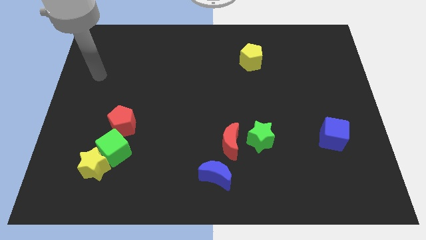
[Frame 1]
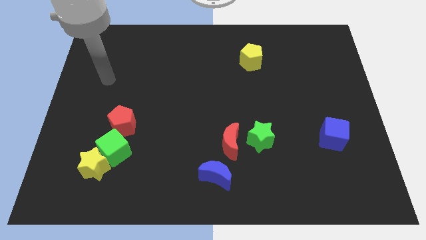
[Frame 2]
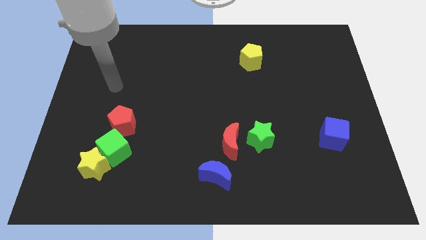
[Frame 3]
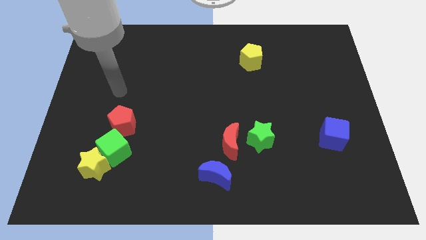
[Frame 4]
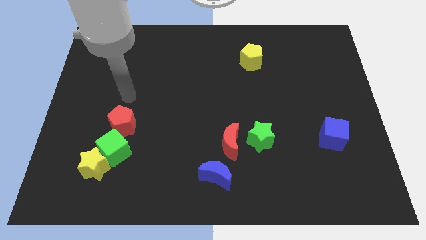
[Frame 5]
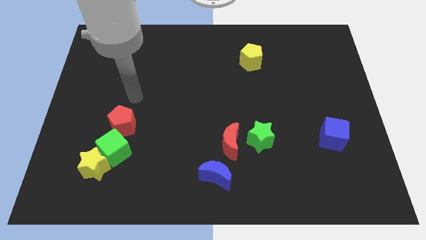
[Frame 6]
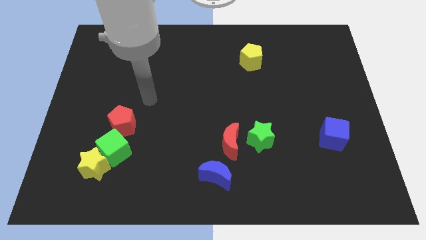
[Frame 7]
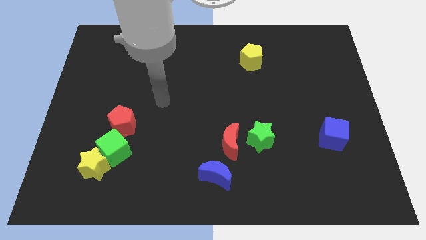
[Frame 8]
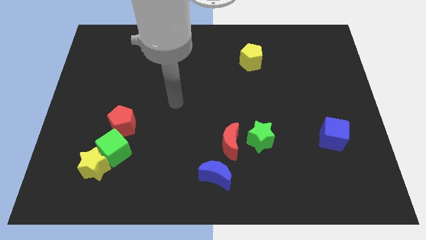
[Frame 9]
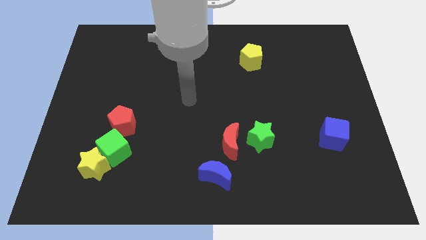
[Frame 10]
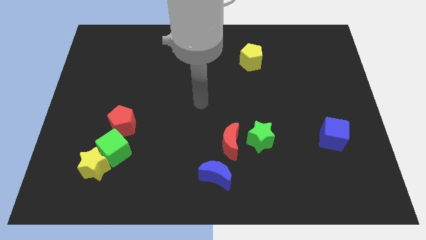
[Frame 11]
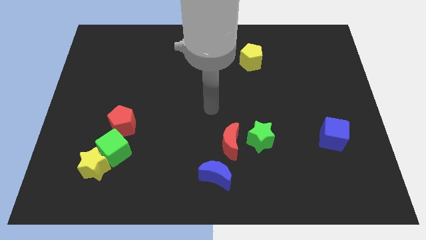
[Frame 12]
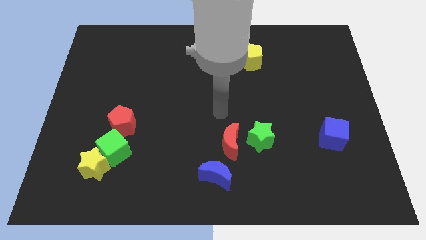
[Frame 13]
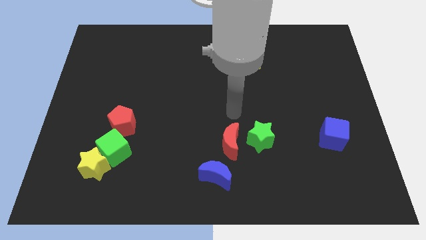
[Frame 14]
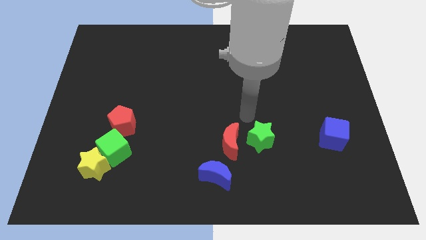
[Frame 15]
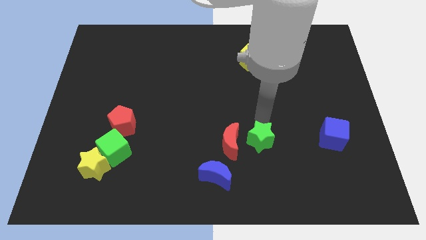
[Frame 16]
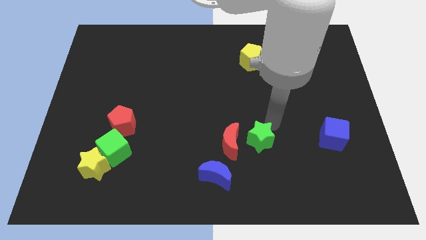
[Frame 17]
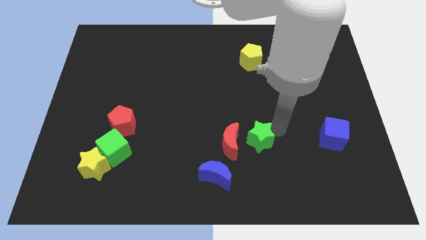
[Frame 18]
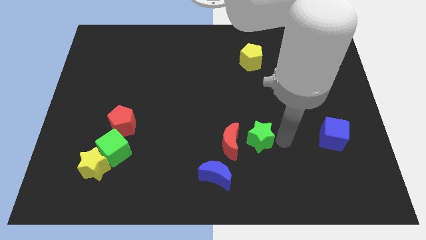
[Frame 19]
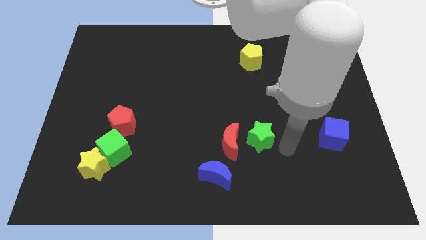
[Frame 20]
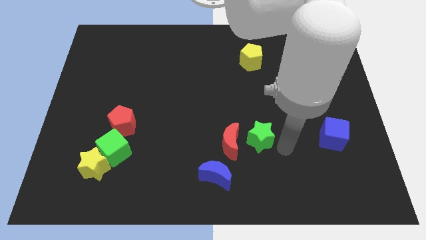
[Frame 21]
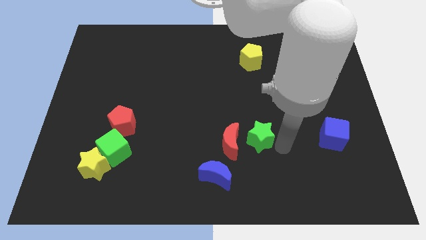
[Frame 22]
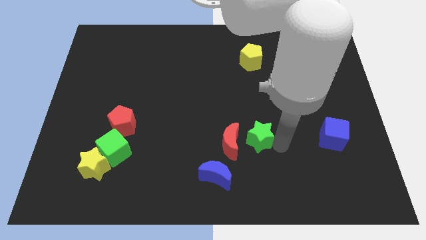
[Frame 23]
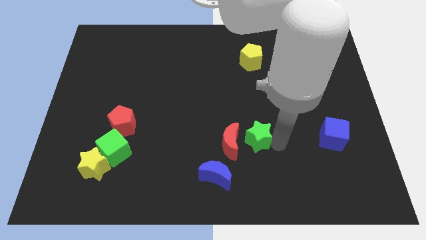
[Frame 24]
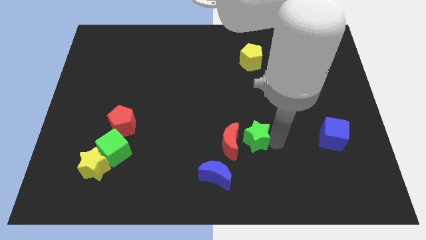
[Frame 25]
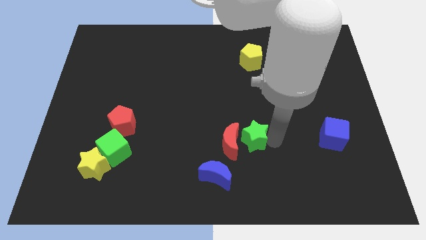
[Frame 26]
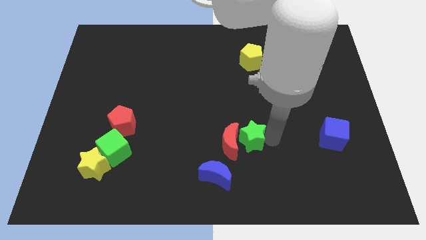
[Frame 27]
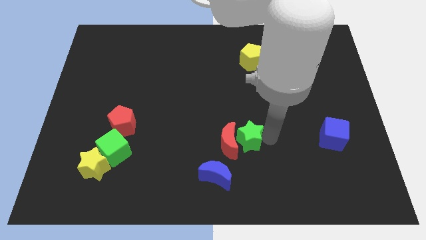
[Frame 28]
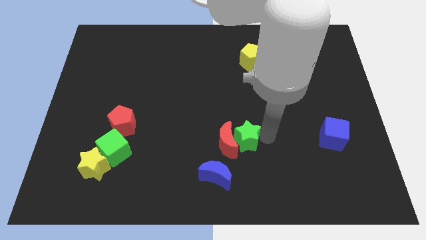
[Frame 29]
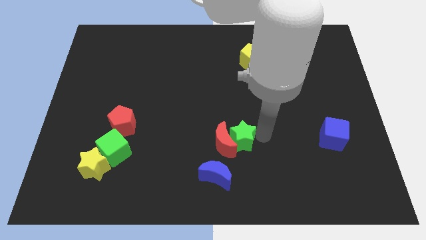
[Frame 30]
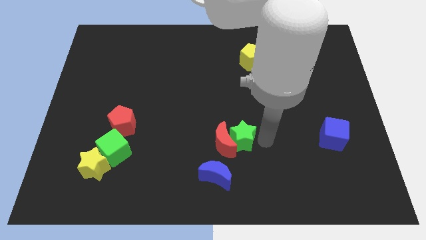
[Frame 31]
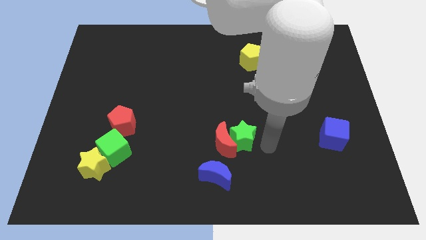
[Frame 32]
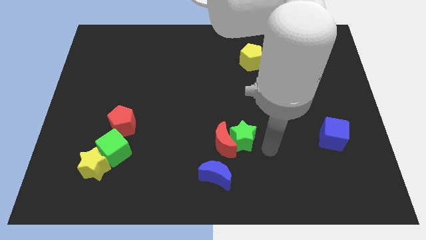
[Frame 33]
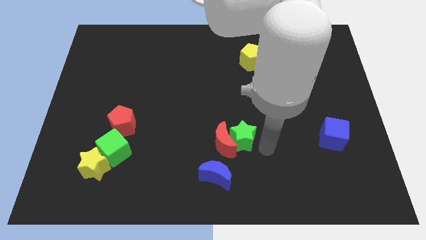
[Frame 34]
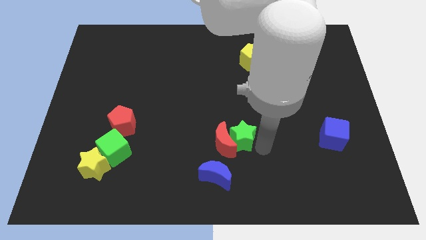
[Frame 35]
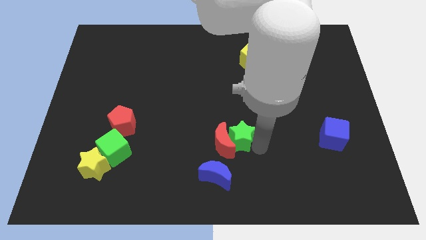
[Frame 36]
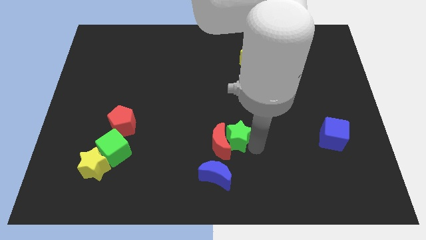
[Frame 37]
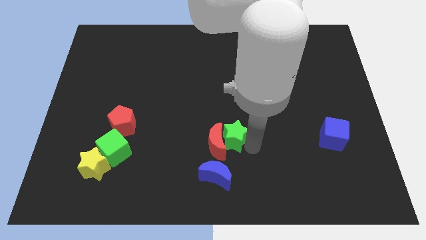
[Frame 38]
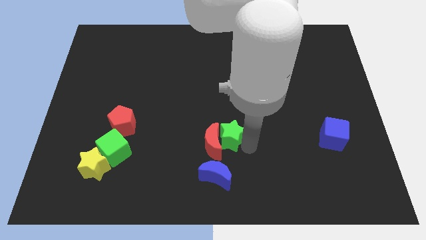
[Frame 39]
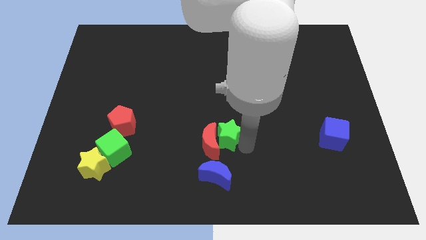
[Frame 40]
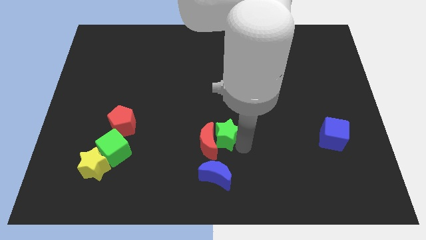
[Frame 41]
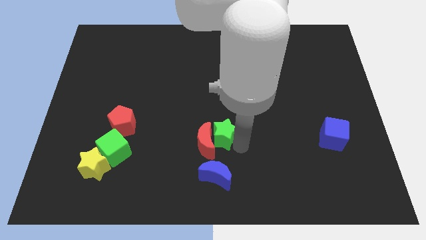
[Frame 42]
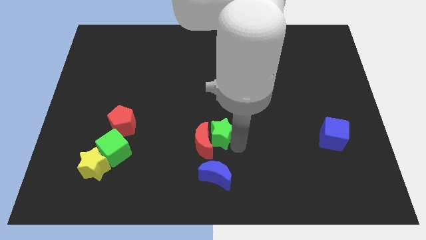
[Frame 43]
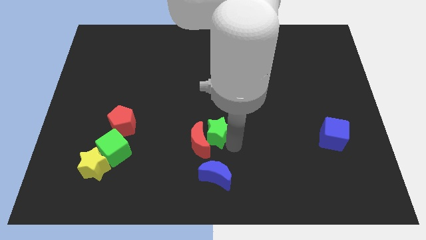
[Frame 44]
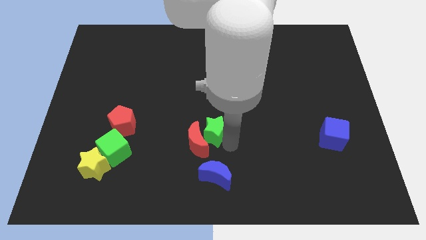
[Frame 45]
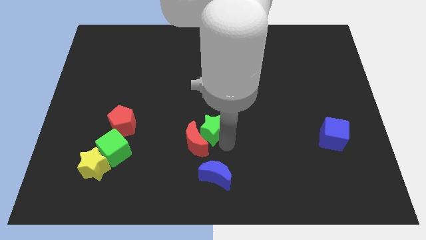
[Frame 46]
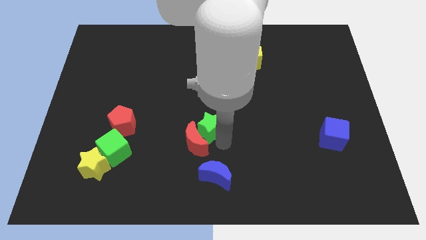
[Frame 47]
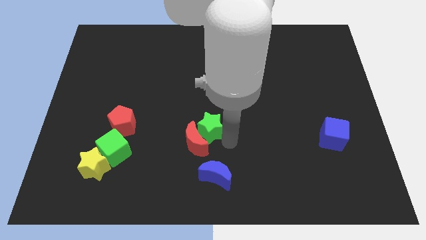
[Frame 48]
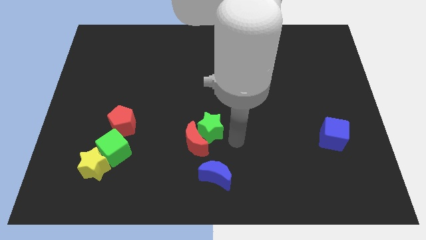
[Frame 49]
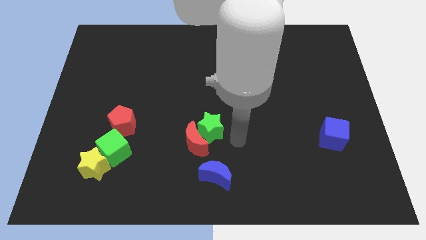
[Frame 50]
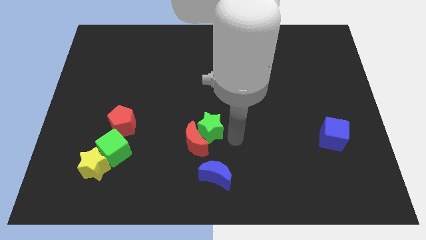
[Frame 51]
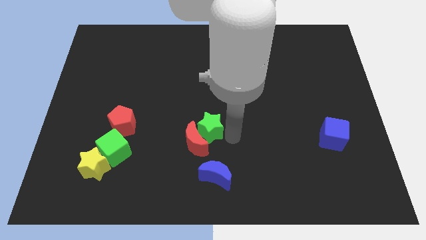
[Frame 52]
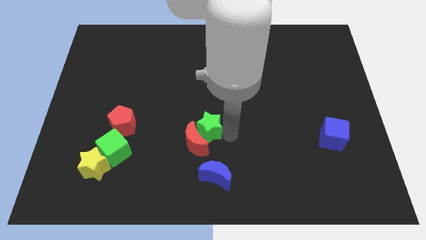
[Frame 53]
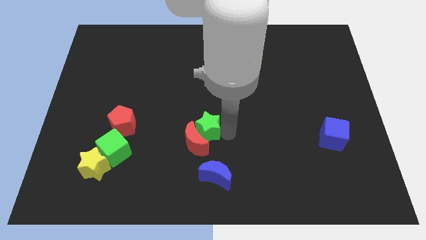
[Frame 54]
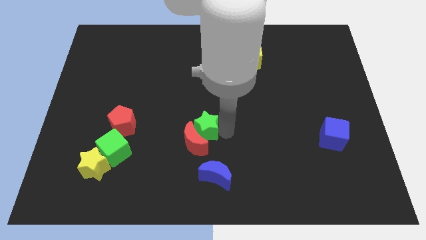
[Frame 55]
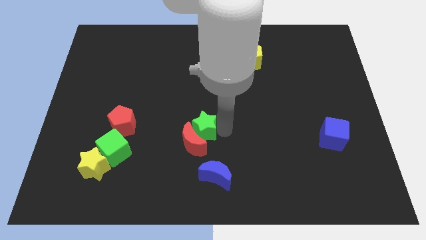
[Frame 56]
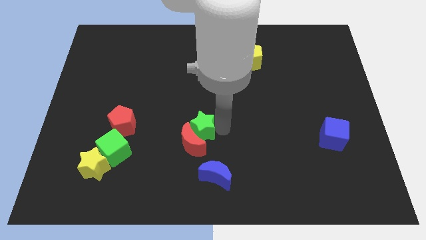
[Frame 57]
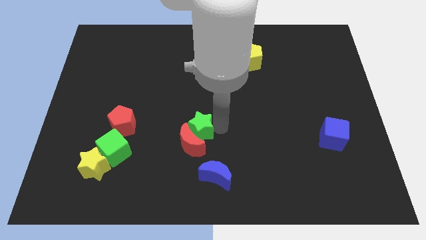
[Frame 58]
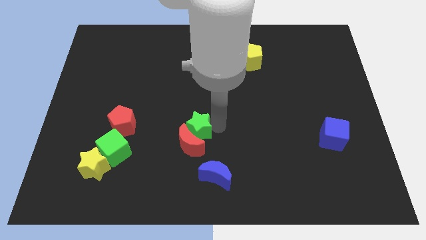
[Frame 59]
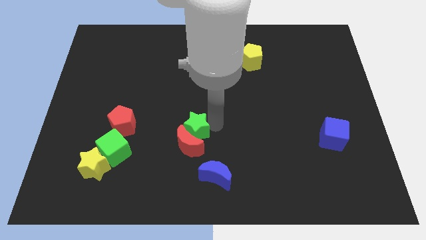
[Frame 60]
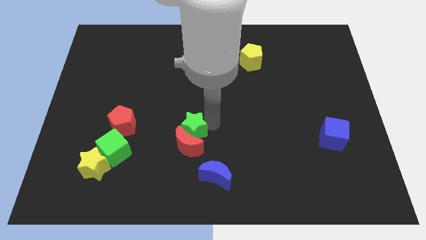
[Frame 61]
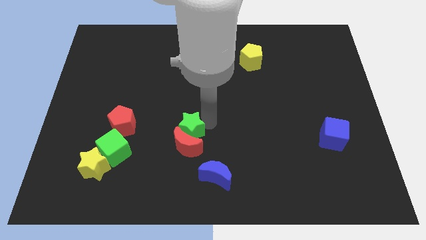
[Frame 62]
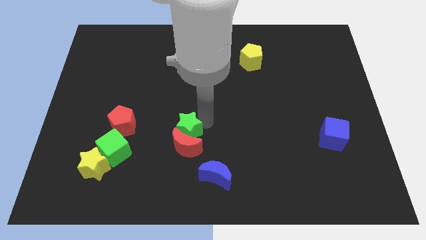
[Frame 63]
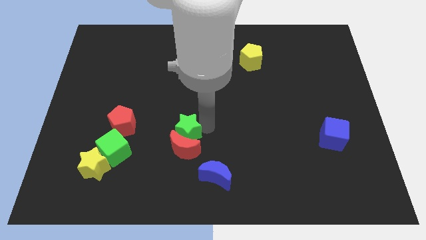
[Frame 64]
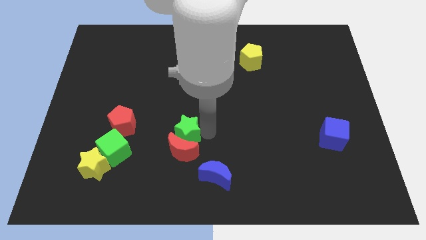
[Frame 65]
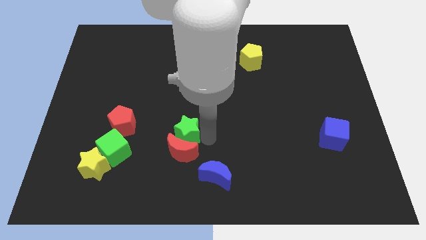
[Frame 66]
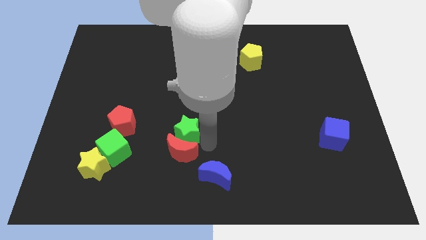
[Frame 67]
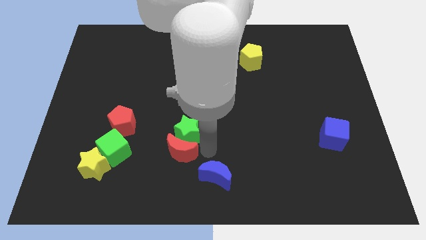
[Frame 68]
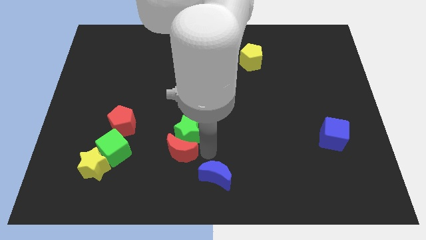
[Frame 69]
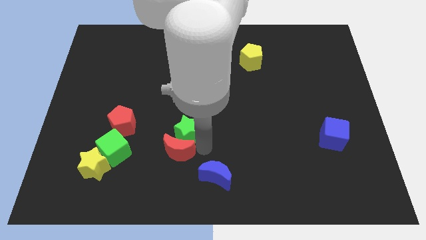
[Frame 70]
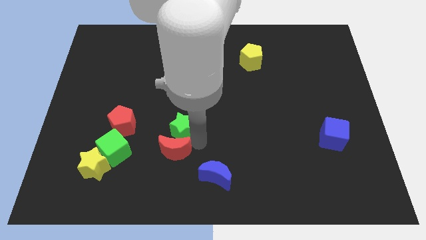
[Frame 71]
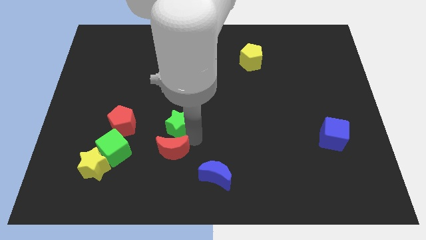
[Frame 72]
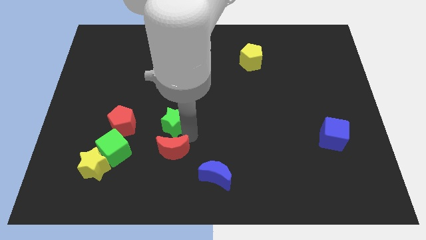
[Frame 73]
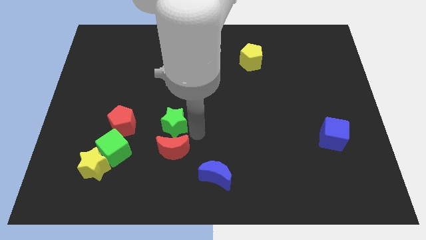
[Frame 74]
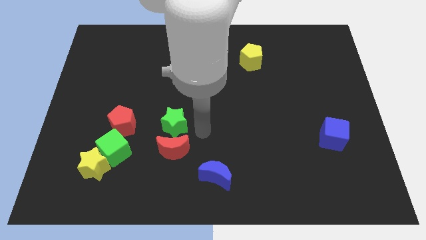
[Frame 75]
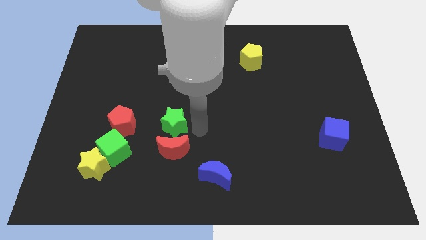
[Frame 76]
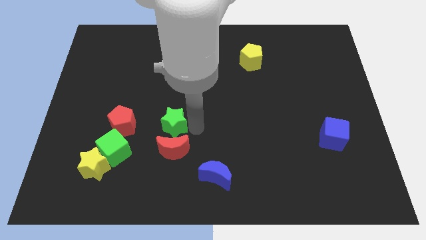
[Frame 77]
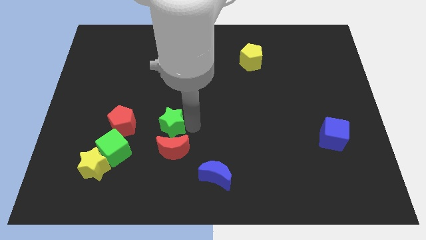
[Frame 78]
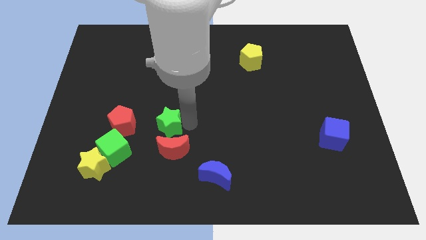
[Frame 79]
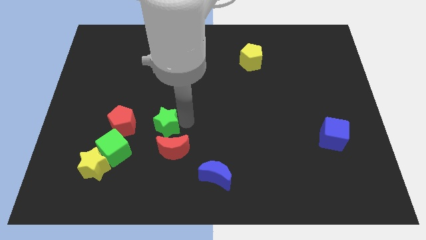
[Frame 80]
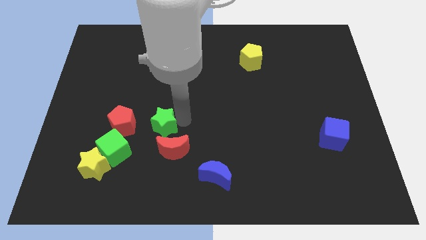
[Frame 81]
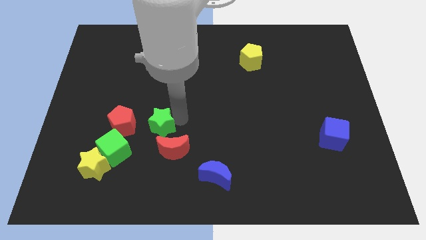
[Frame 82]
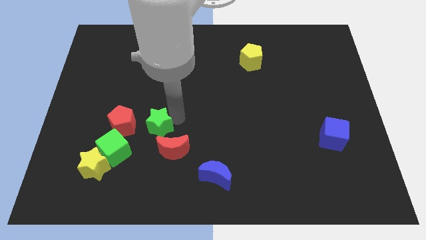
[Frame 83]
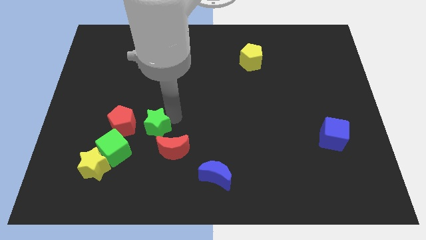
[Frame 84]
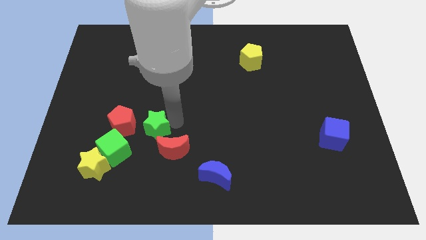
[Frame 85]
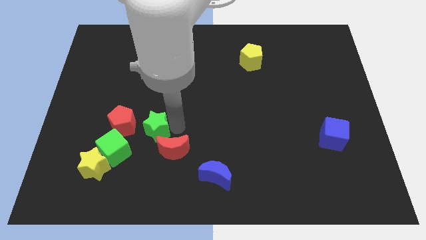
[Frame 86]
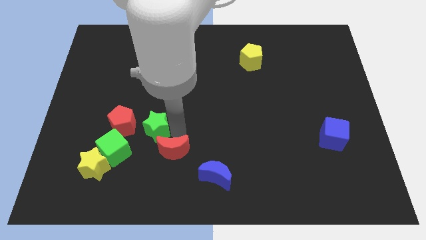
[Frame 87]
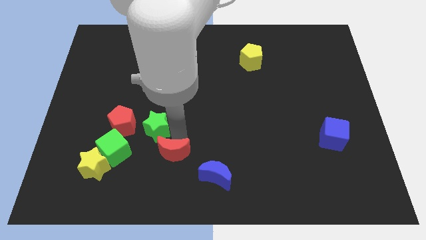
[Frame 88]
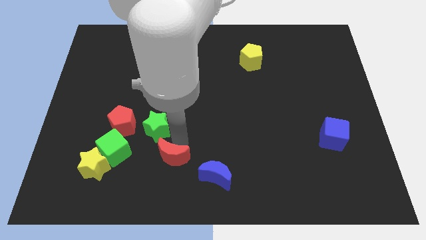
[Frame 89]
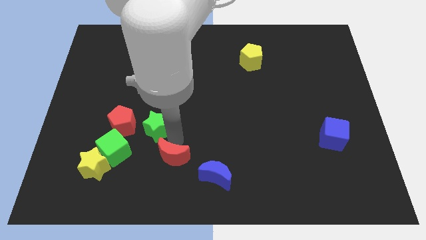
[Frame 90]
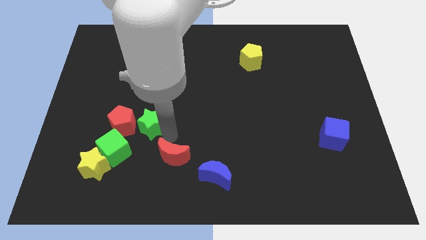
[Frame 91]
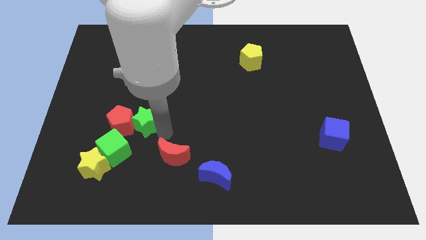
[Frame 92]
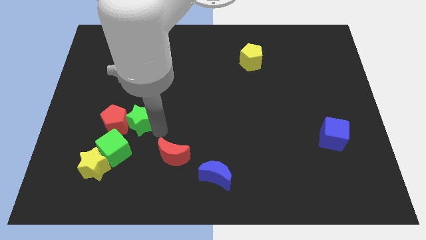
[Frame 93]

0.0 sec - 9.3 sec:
slide the green star above the green cube
